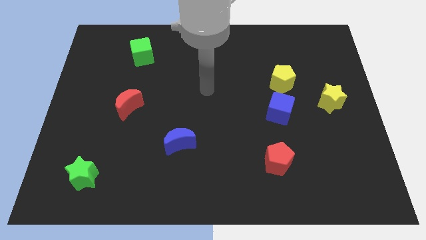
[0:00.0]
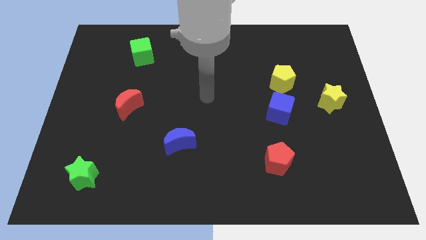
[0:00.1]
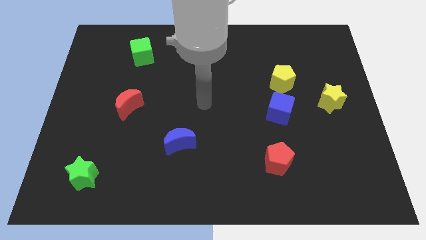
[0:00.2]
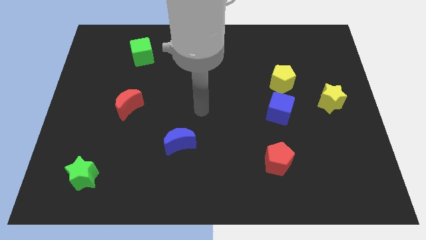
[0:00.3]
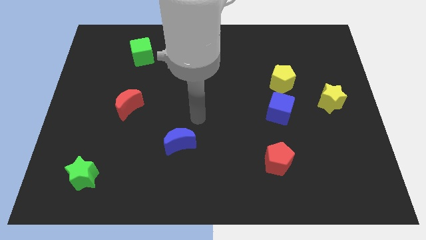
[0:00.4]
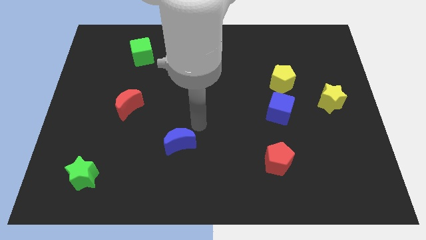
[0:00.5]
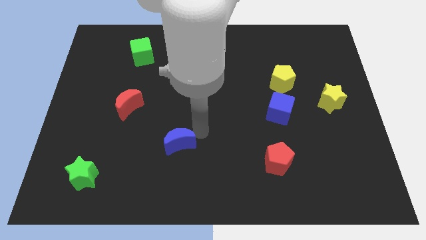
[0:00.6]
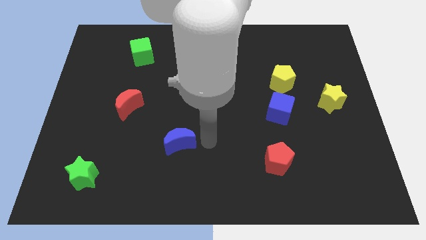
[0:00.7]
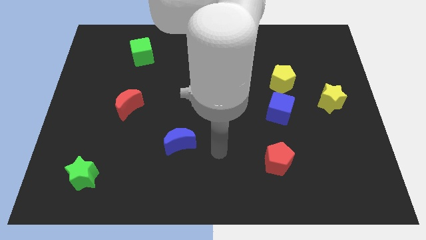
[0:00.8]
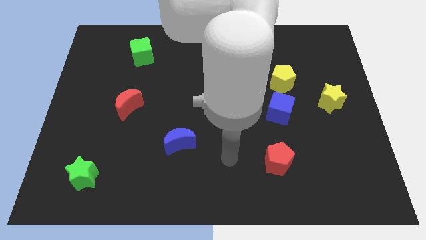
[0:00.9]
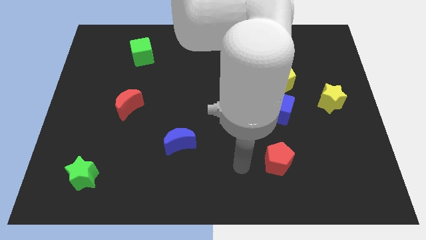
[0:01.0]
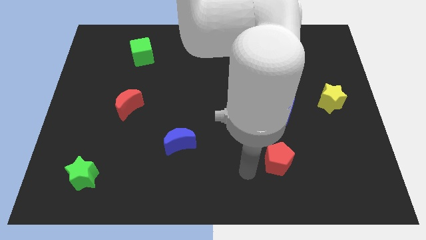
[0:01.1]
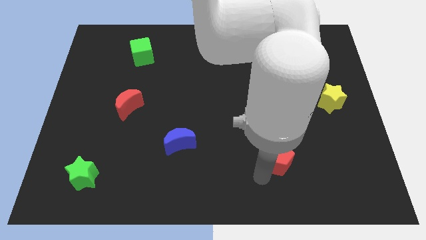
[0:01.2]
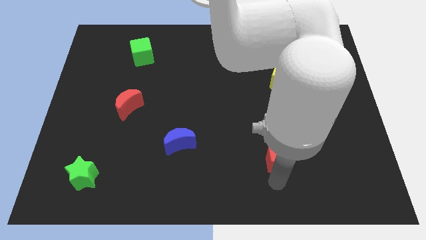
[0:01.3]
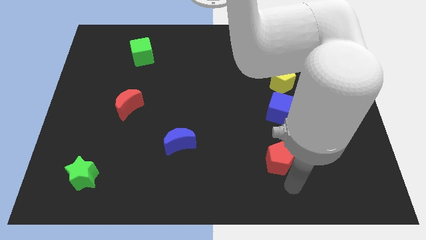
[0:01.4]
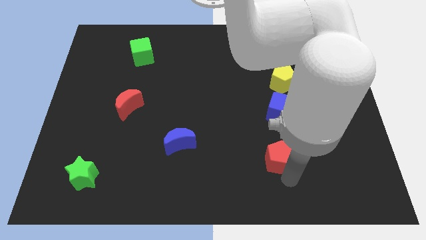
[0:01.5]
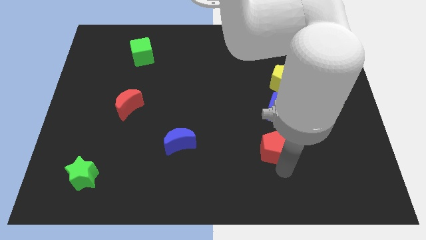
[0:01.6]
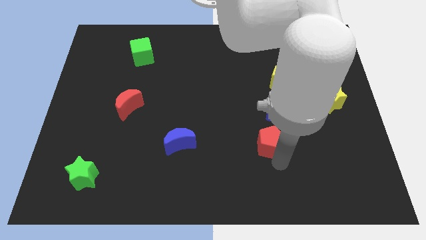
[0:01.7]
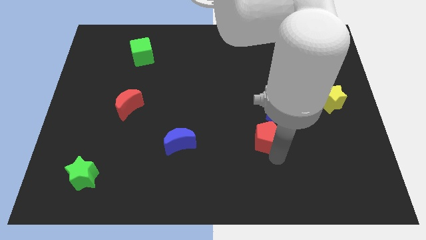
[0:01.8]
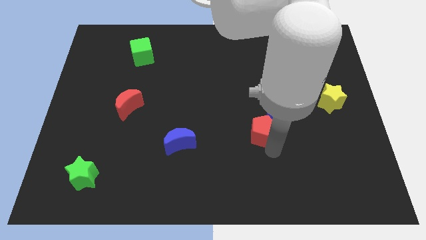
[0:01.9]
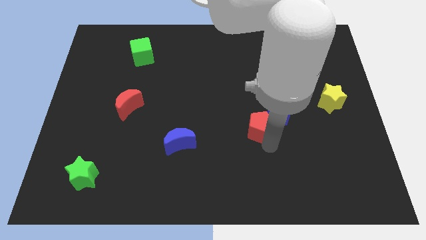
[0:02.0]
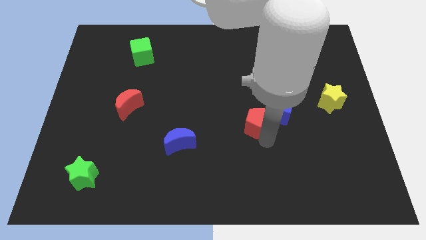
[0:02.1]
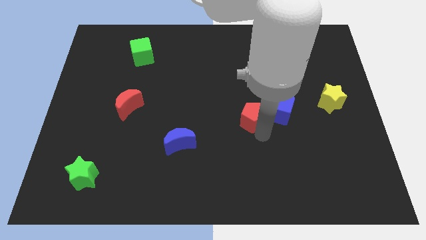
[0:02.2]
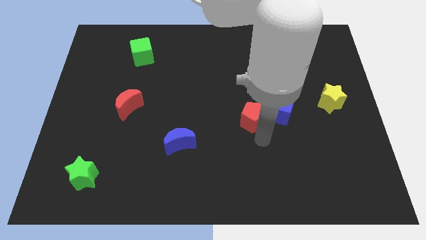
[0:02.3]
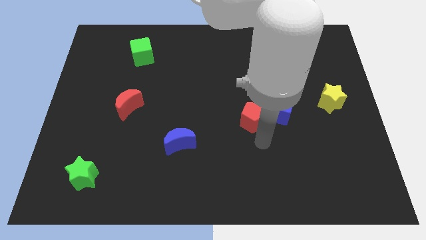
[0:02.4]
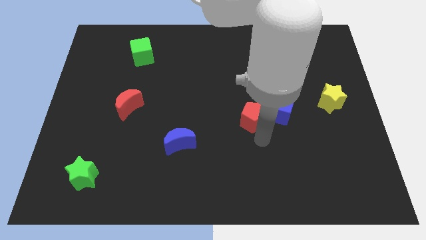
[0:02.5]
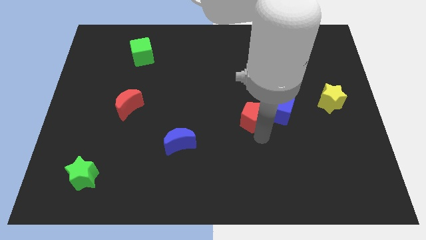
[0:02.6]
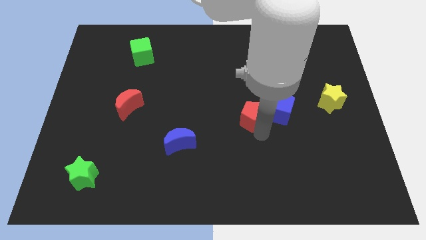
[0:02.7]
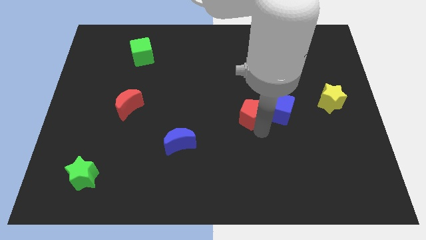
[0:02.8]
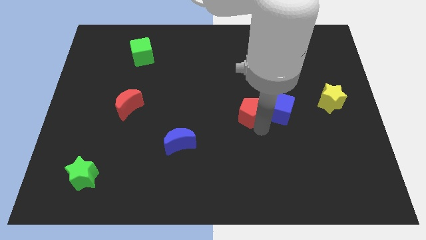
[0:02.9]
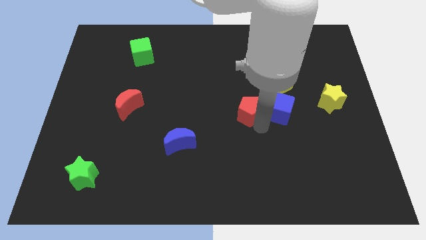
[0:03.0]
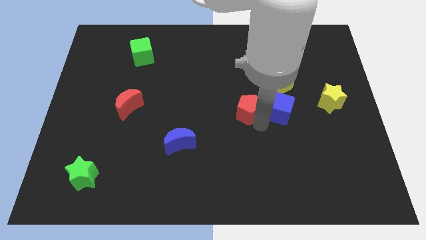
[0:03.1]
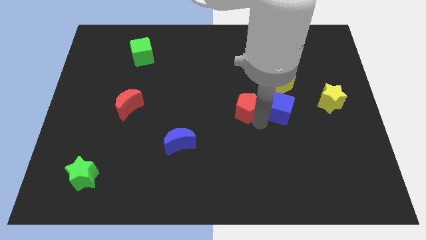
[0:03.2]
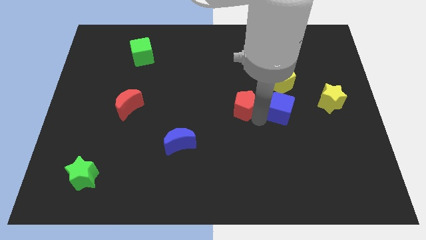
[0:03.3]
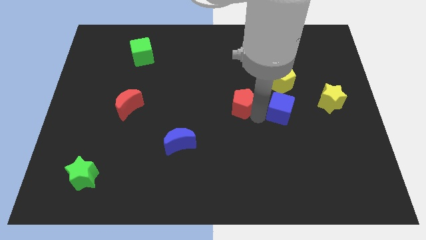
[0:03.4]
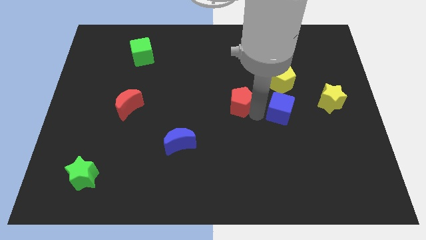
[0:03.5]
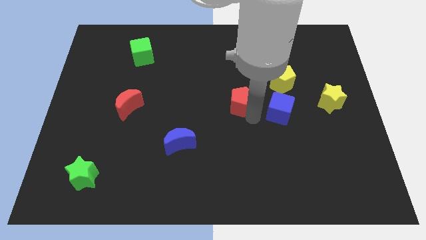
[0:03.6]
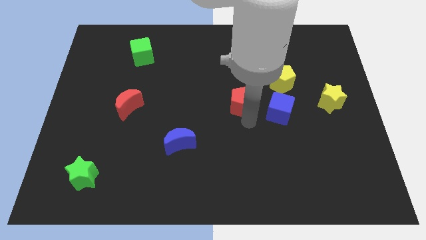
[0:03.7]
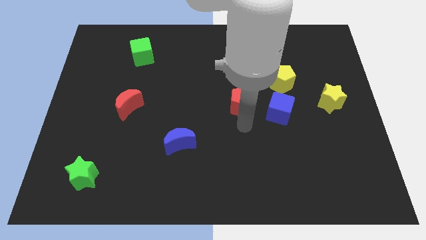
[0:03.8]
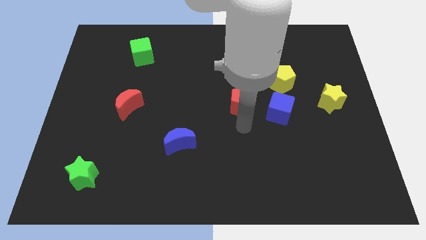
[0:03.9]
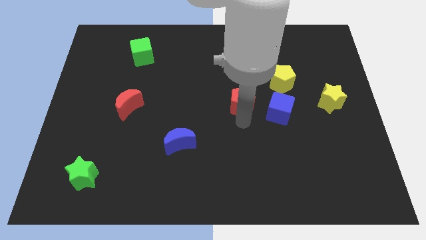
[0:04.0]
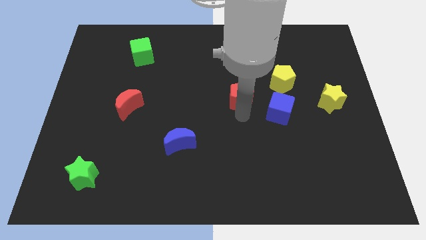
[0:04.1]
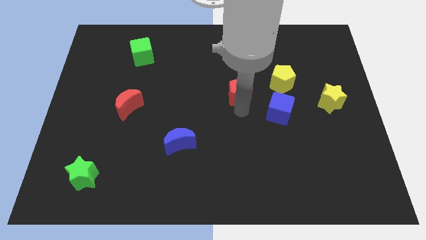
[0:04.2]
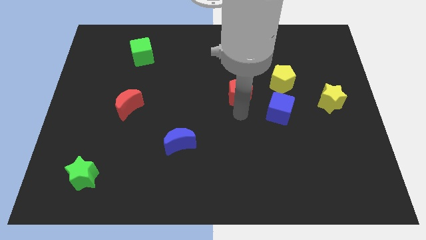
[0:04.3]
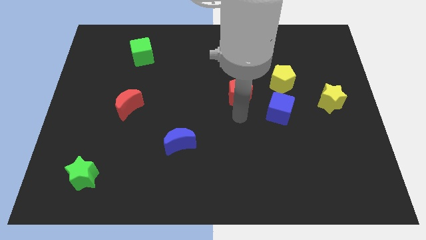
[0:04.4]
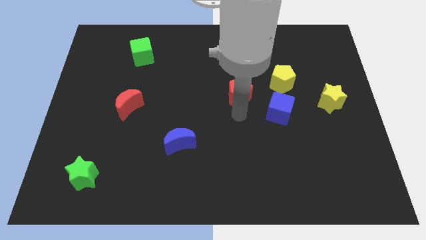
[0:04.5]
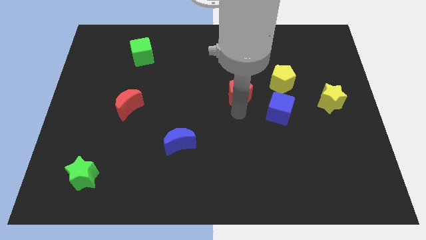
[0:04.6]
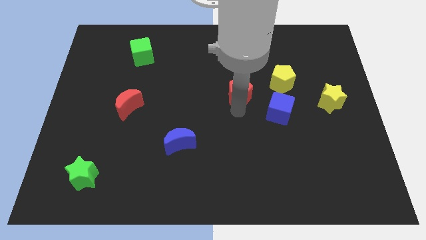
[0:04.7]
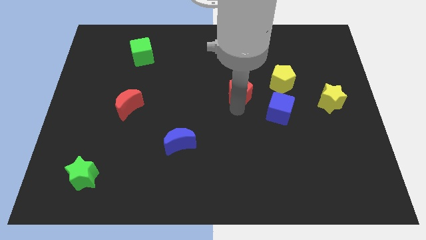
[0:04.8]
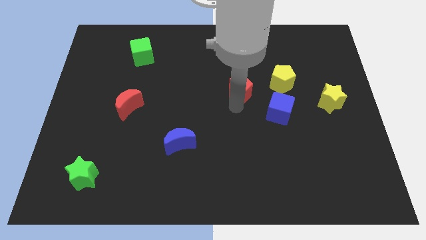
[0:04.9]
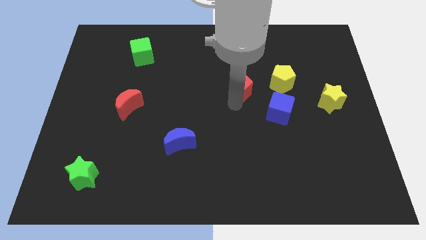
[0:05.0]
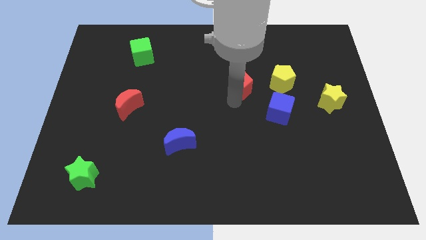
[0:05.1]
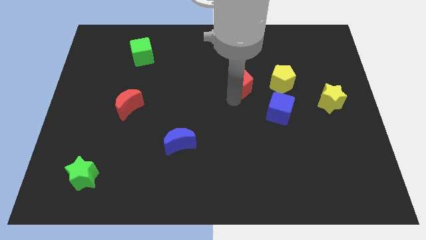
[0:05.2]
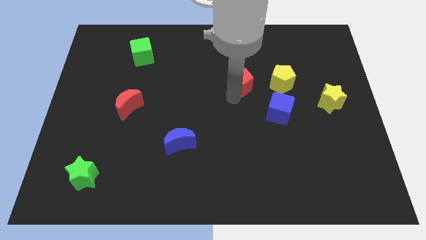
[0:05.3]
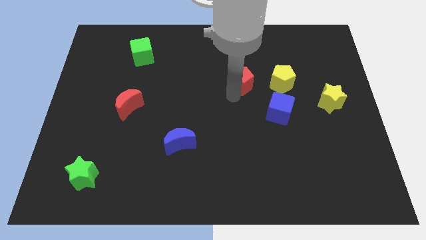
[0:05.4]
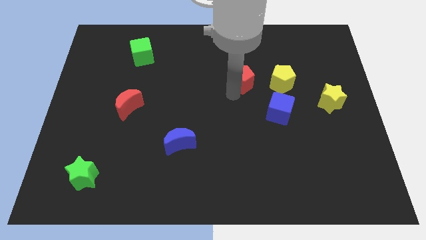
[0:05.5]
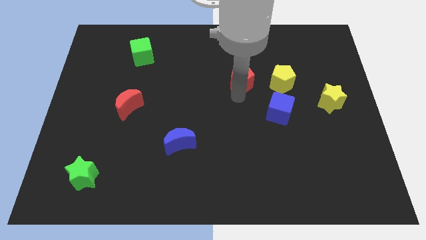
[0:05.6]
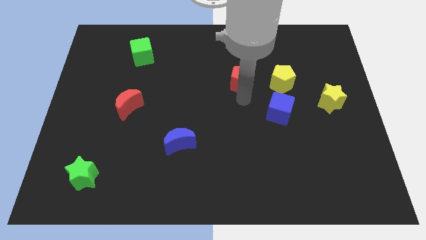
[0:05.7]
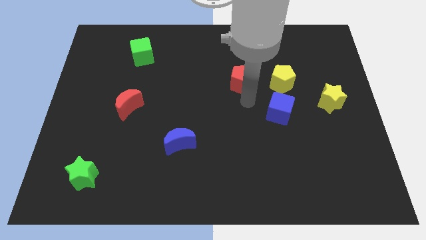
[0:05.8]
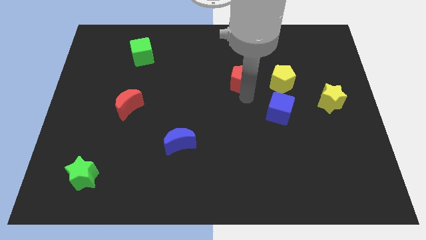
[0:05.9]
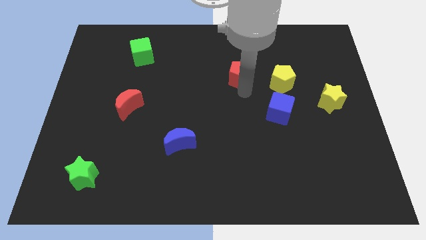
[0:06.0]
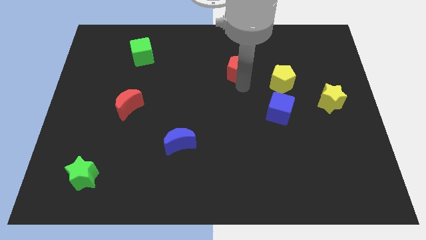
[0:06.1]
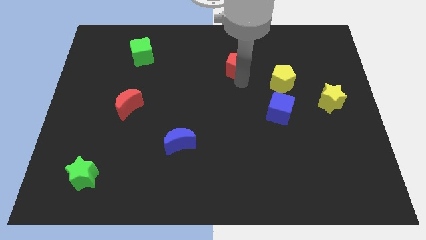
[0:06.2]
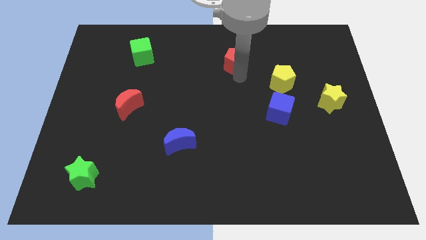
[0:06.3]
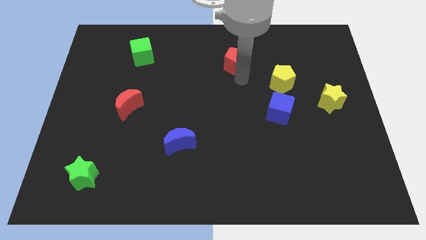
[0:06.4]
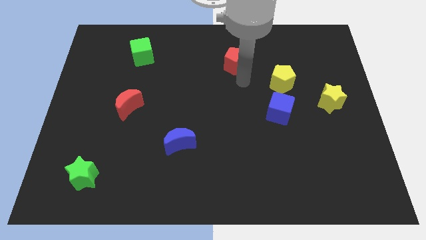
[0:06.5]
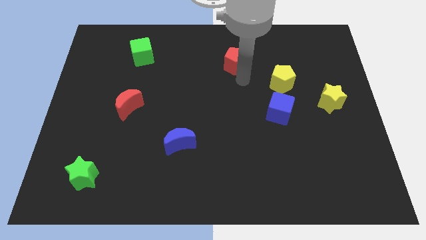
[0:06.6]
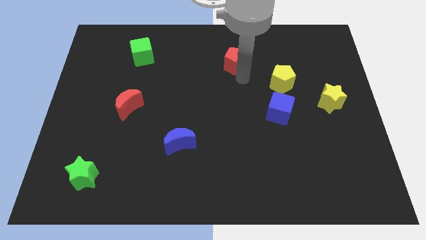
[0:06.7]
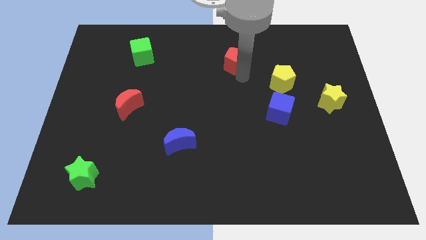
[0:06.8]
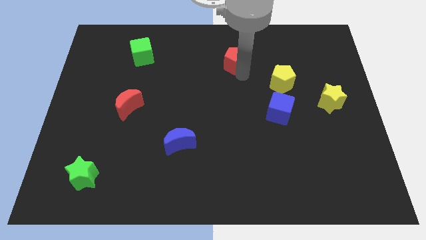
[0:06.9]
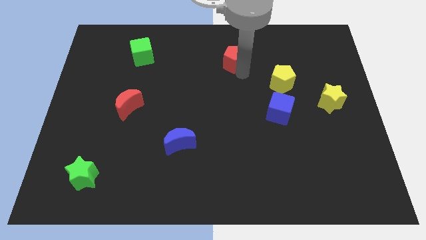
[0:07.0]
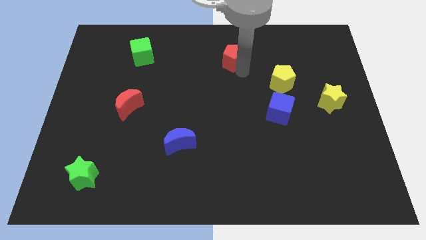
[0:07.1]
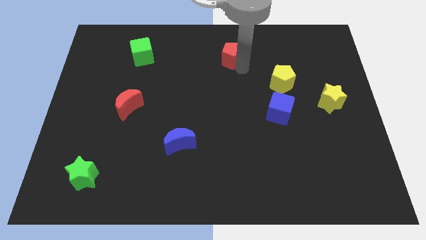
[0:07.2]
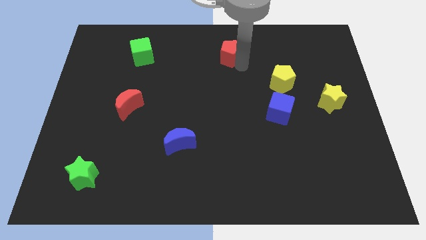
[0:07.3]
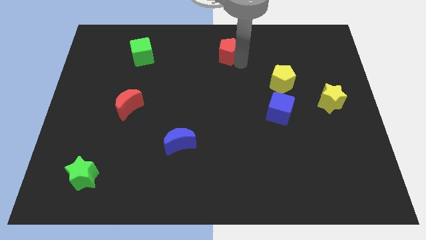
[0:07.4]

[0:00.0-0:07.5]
push the red pentagon to the top side
